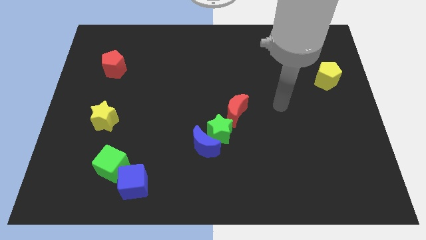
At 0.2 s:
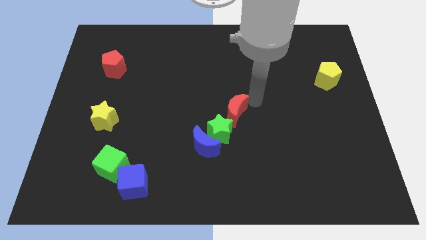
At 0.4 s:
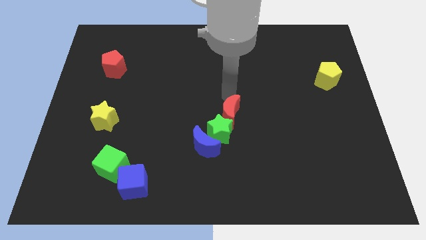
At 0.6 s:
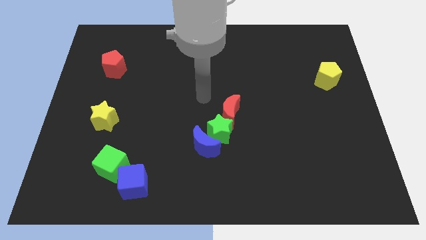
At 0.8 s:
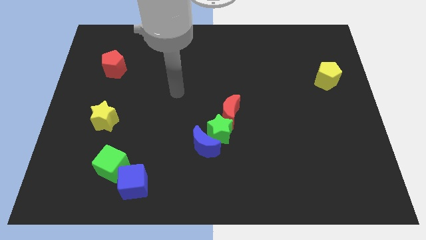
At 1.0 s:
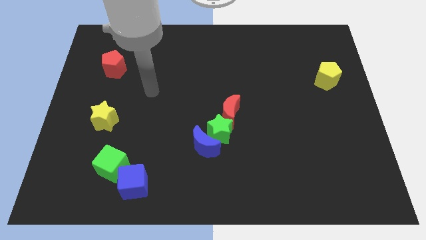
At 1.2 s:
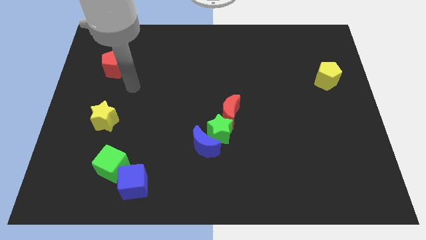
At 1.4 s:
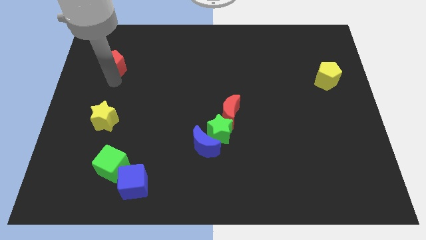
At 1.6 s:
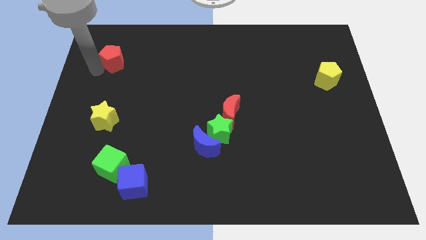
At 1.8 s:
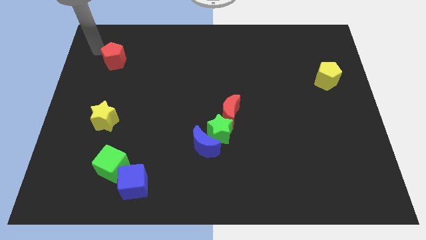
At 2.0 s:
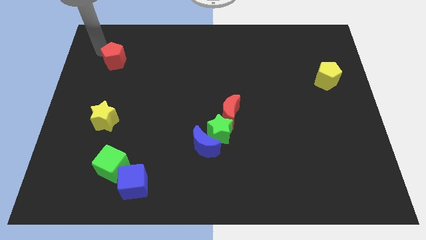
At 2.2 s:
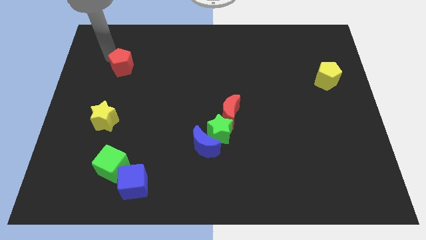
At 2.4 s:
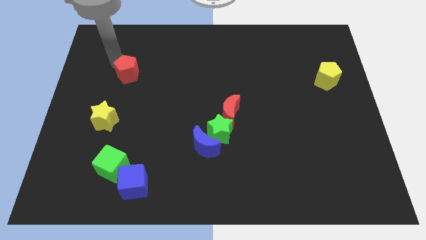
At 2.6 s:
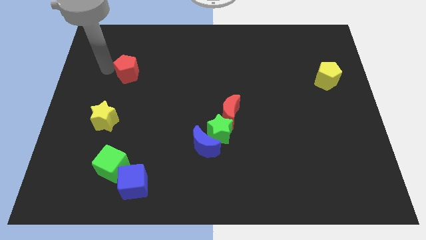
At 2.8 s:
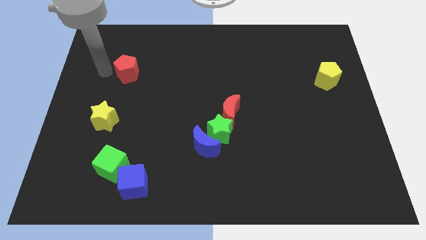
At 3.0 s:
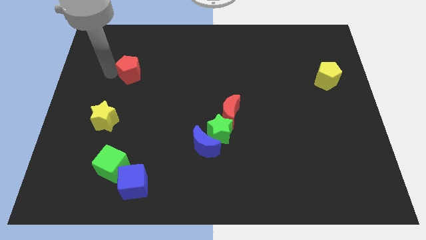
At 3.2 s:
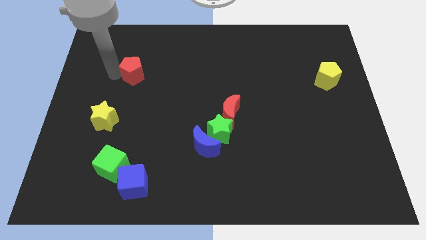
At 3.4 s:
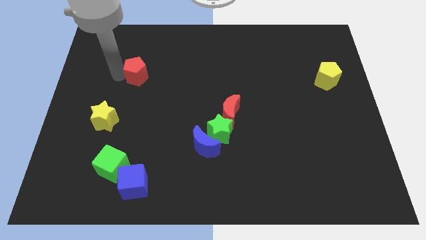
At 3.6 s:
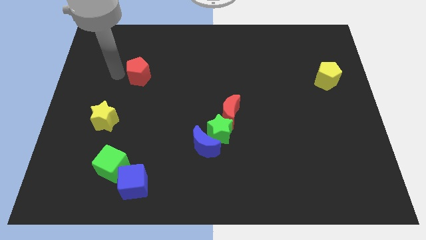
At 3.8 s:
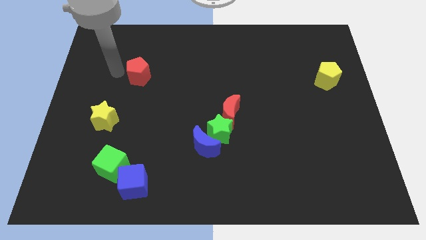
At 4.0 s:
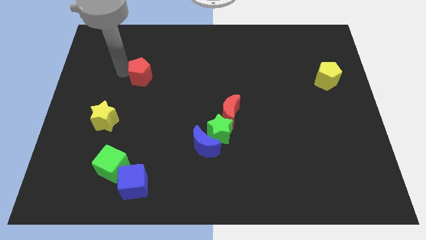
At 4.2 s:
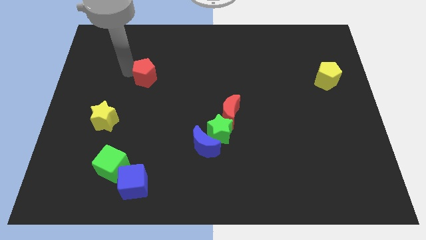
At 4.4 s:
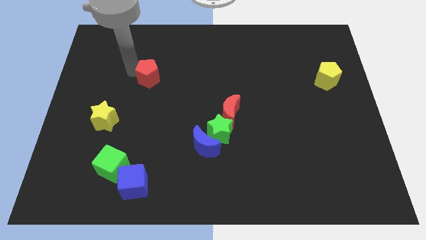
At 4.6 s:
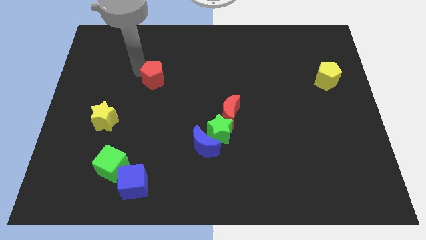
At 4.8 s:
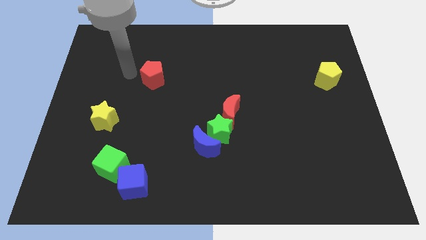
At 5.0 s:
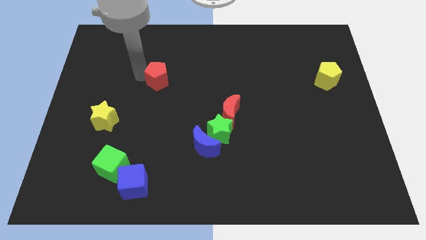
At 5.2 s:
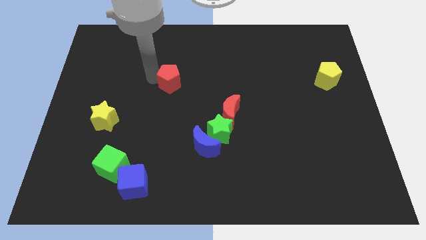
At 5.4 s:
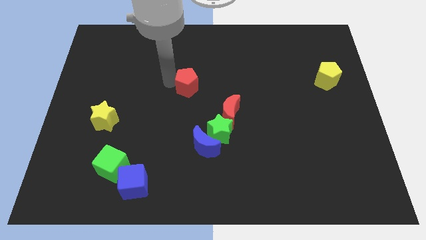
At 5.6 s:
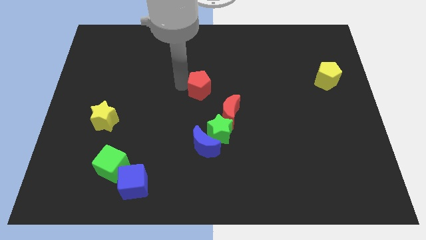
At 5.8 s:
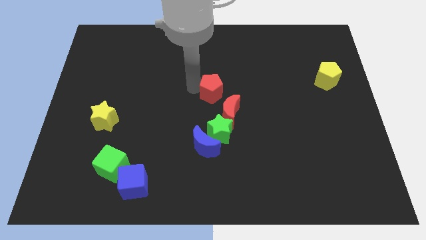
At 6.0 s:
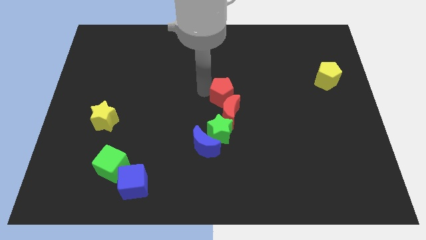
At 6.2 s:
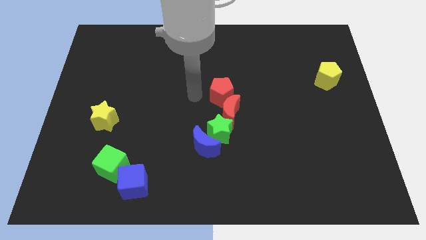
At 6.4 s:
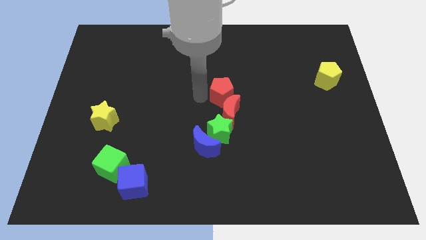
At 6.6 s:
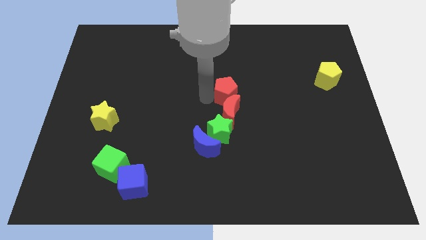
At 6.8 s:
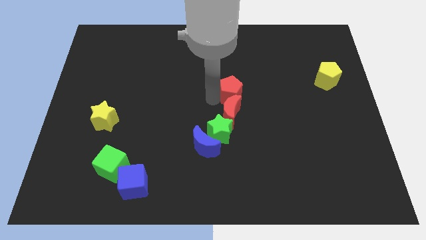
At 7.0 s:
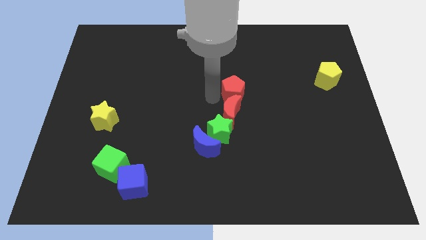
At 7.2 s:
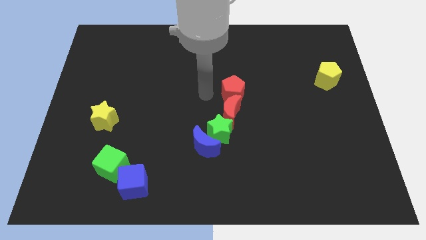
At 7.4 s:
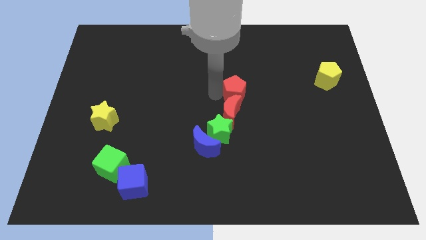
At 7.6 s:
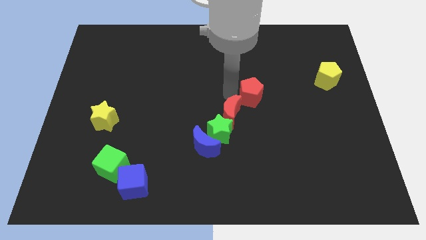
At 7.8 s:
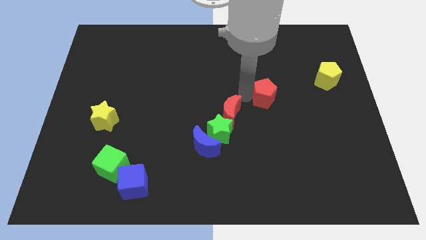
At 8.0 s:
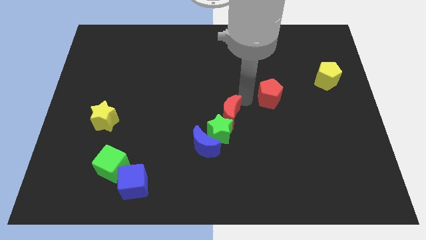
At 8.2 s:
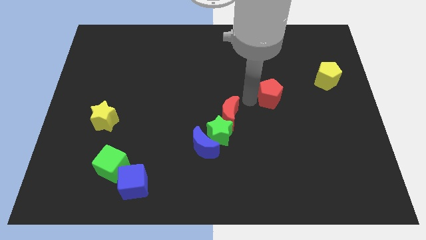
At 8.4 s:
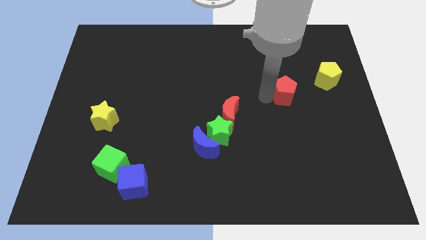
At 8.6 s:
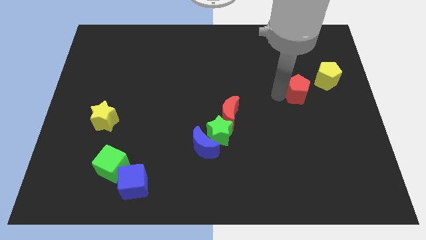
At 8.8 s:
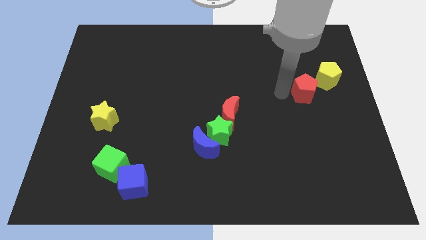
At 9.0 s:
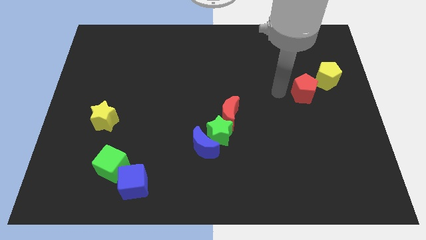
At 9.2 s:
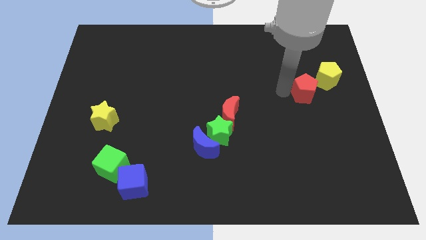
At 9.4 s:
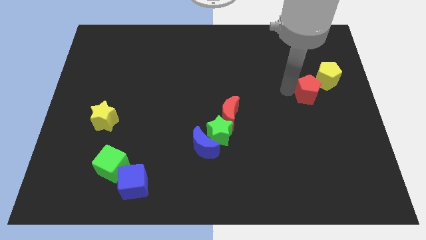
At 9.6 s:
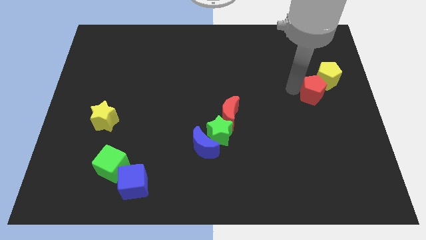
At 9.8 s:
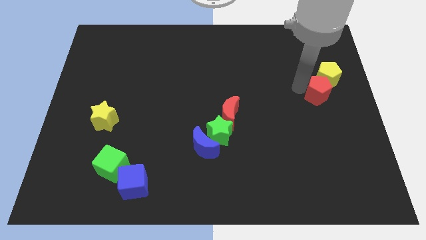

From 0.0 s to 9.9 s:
put the red pentagon to the center right

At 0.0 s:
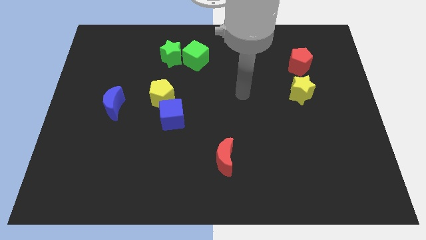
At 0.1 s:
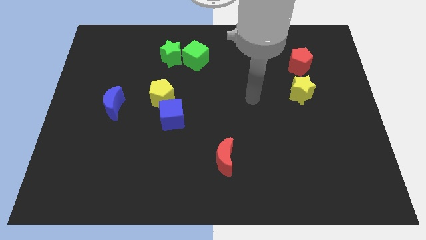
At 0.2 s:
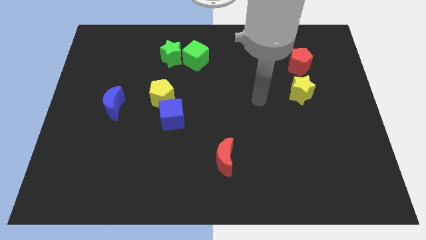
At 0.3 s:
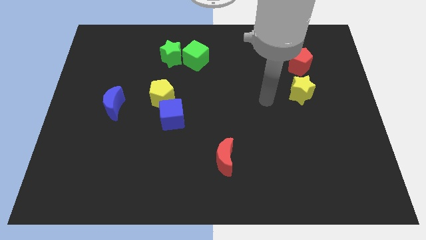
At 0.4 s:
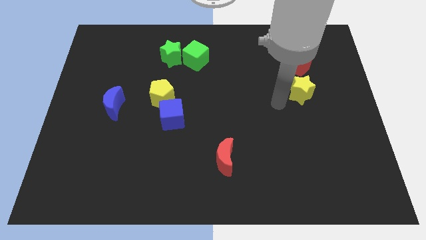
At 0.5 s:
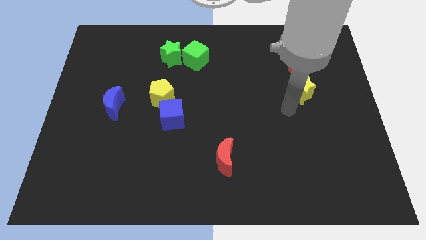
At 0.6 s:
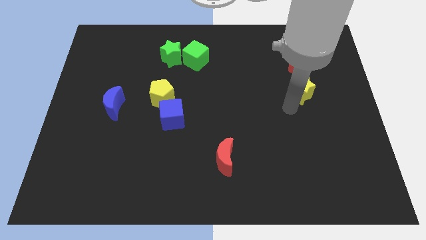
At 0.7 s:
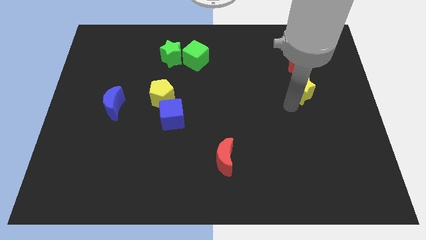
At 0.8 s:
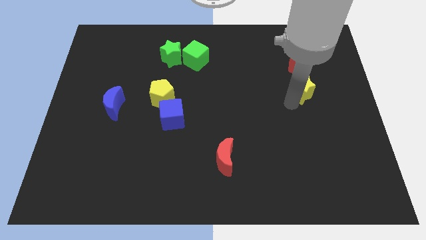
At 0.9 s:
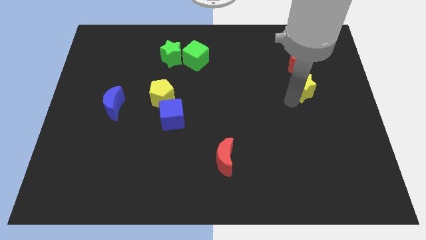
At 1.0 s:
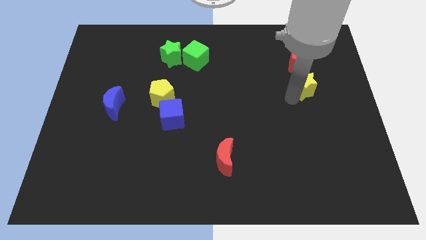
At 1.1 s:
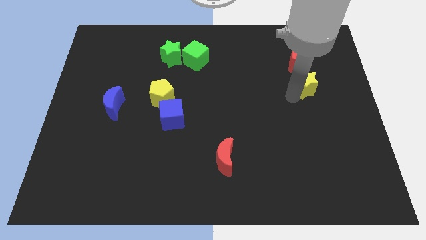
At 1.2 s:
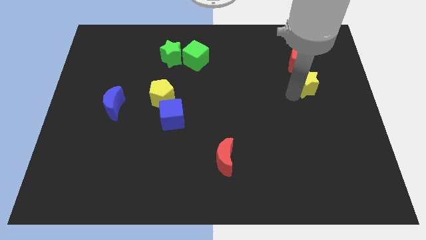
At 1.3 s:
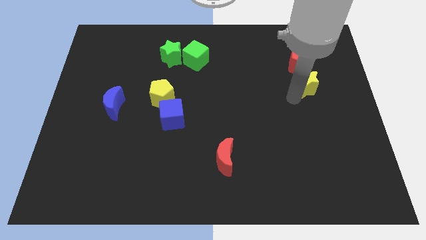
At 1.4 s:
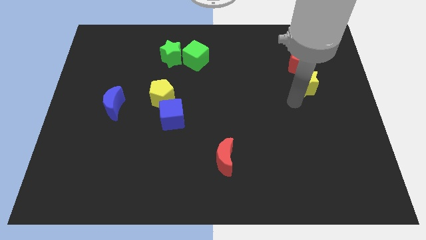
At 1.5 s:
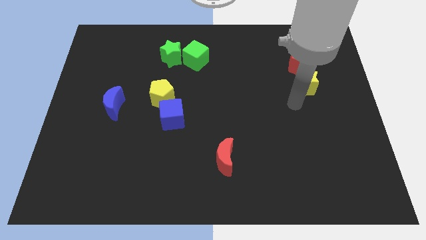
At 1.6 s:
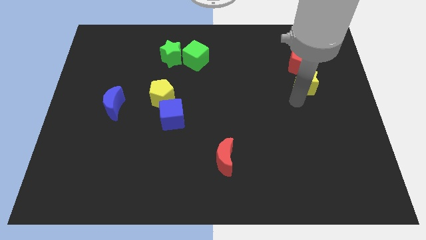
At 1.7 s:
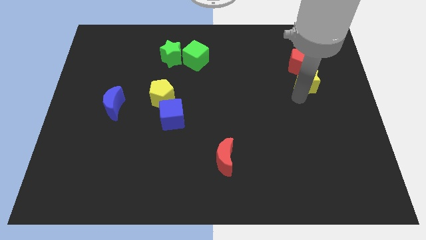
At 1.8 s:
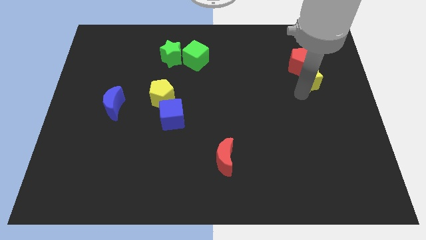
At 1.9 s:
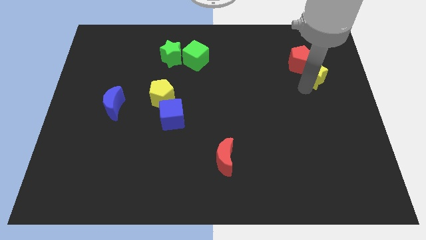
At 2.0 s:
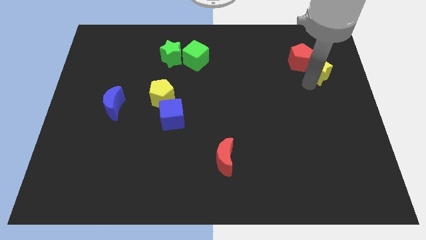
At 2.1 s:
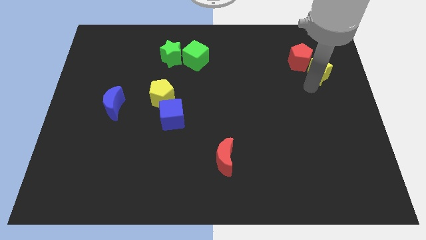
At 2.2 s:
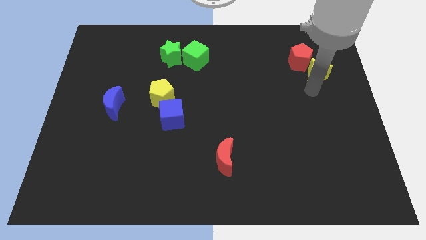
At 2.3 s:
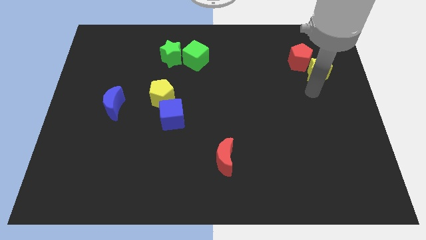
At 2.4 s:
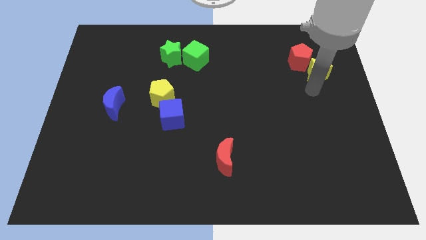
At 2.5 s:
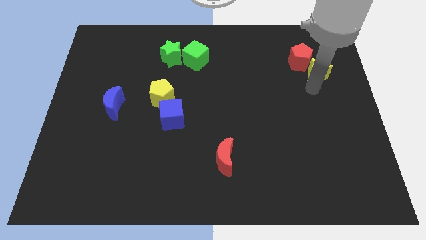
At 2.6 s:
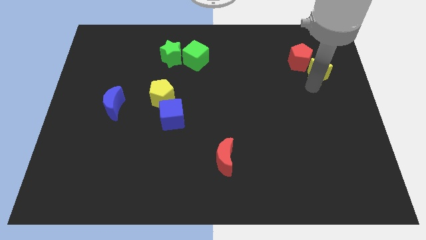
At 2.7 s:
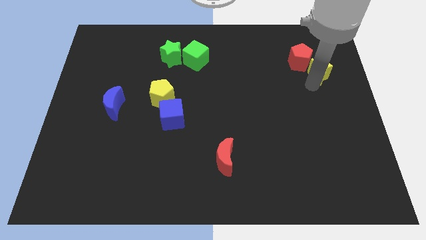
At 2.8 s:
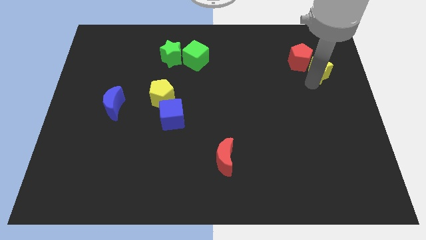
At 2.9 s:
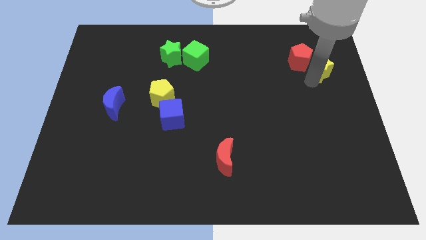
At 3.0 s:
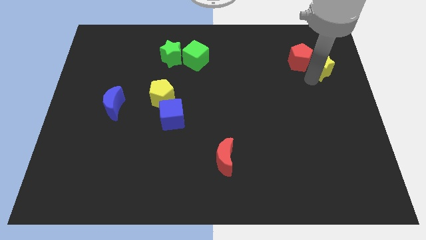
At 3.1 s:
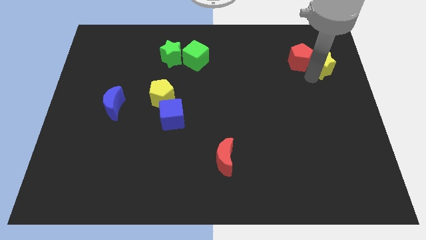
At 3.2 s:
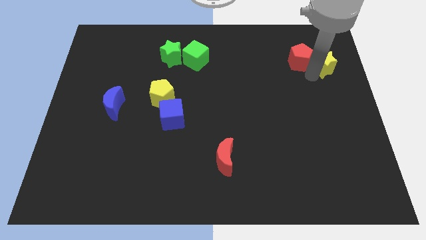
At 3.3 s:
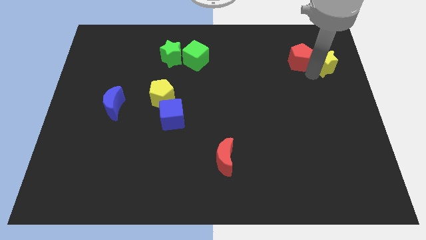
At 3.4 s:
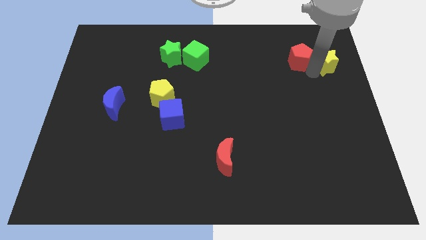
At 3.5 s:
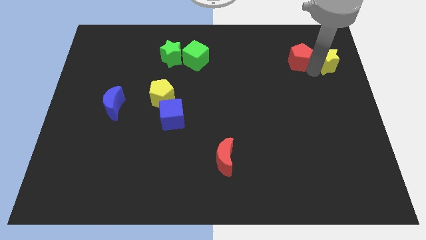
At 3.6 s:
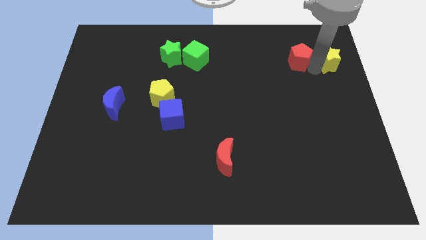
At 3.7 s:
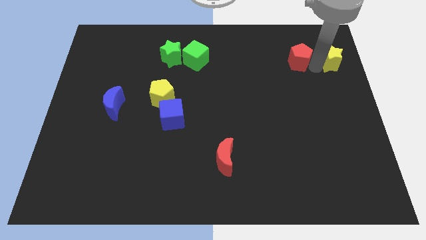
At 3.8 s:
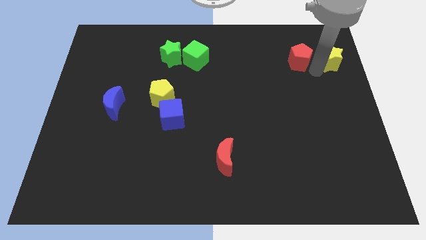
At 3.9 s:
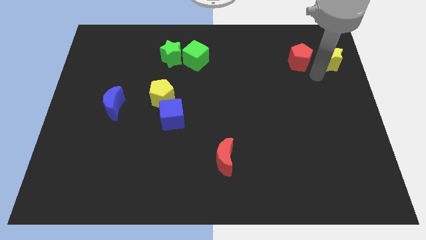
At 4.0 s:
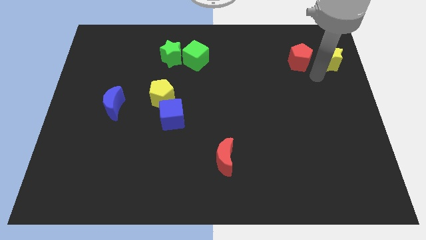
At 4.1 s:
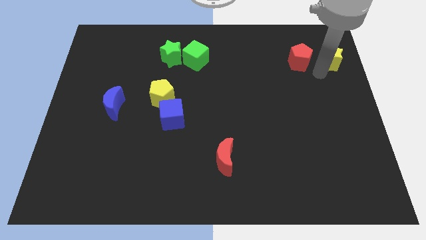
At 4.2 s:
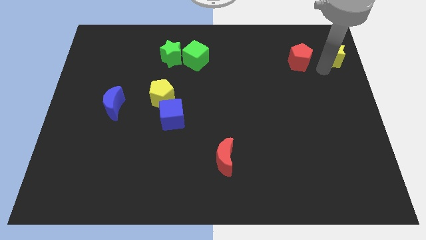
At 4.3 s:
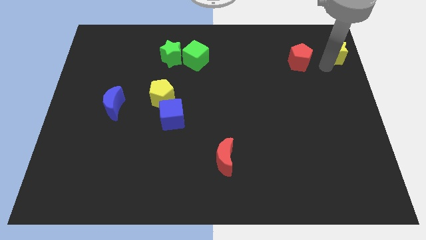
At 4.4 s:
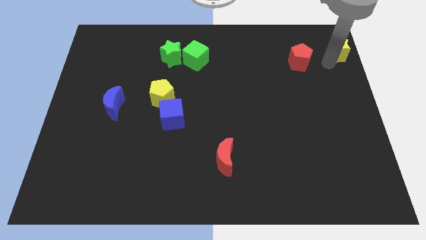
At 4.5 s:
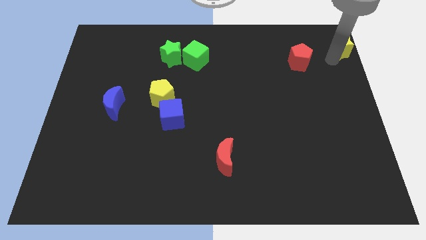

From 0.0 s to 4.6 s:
put the yellow star to the top right of the board
